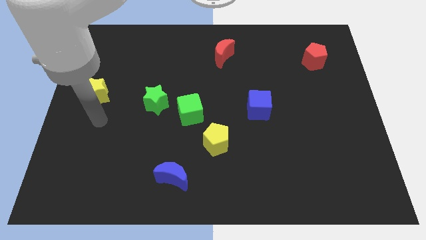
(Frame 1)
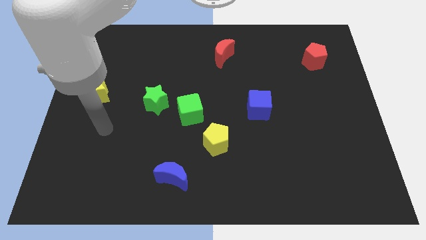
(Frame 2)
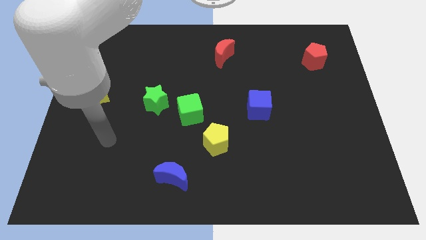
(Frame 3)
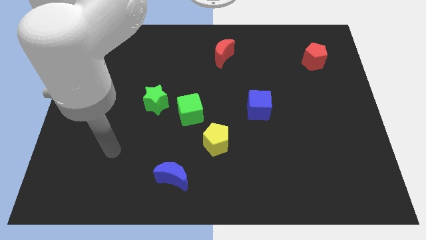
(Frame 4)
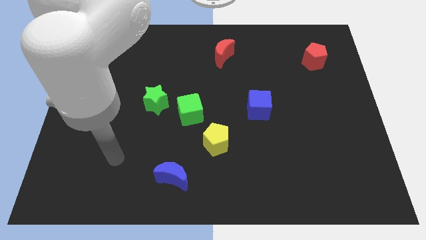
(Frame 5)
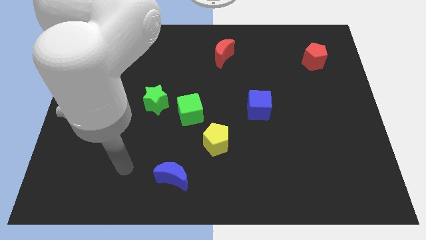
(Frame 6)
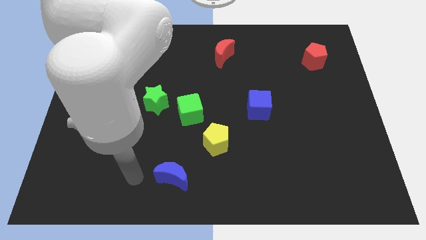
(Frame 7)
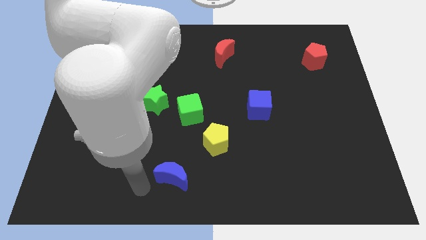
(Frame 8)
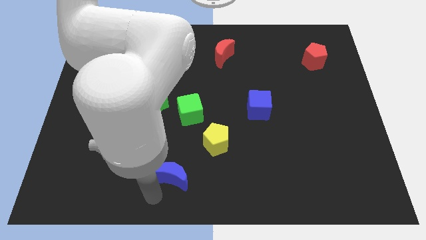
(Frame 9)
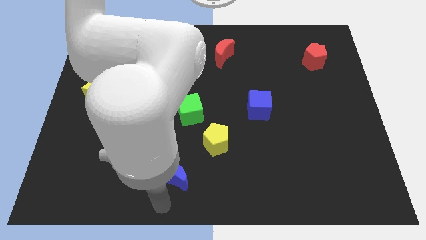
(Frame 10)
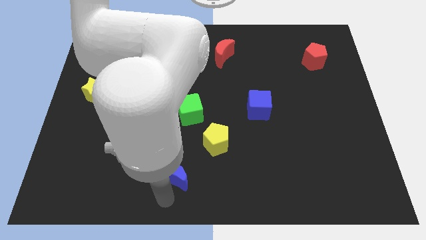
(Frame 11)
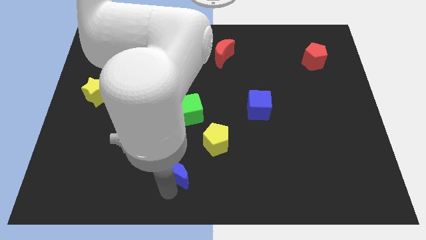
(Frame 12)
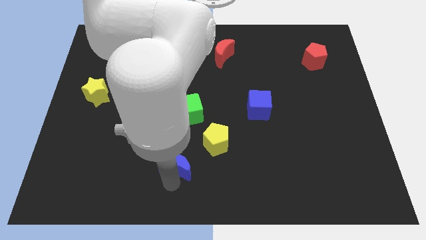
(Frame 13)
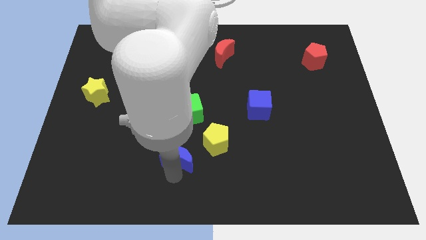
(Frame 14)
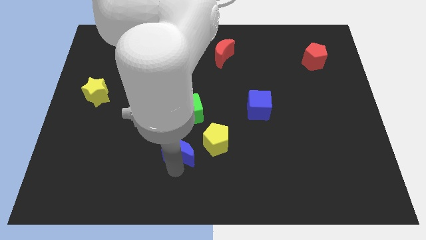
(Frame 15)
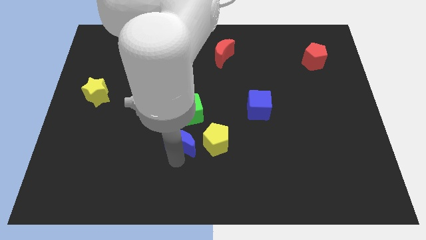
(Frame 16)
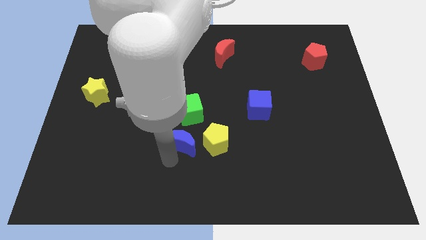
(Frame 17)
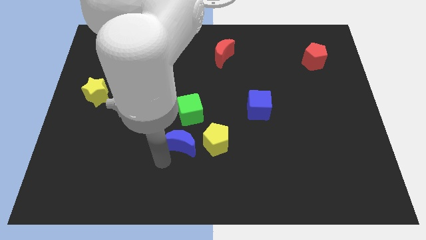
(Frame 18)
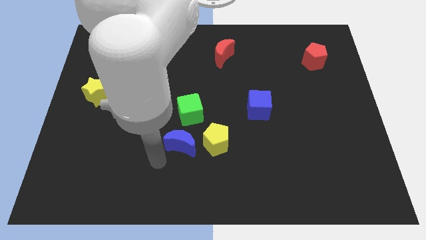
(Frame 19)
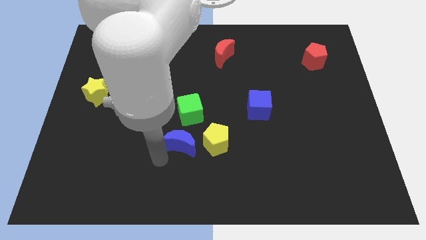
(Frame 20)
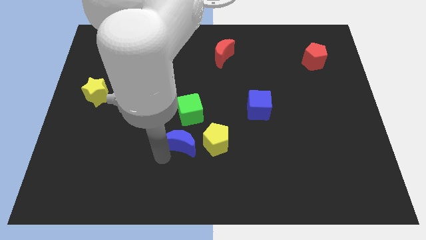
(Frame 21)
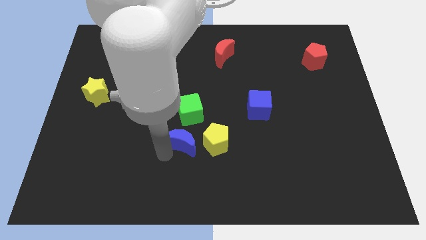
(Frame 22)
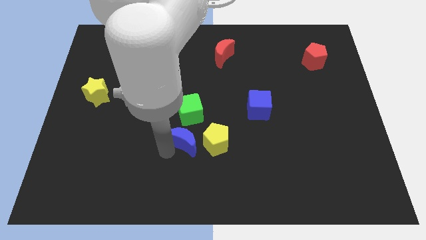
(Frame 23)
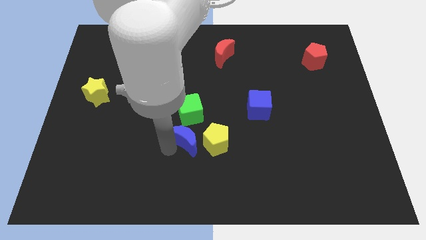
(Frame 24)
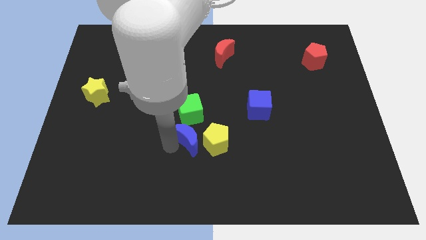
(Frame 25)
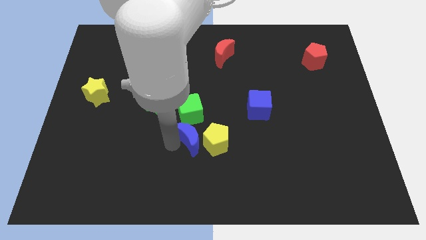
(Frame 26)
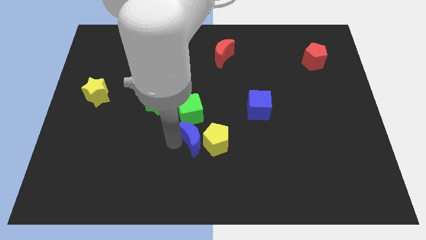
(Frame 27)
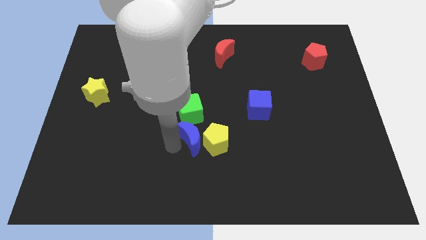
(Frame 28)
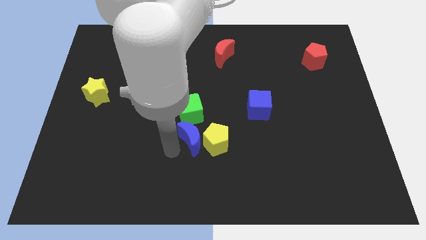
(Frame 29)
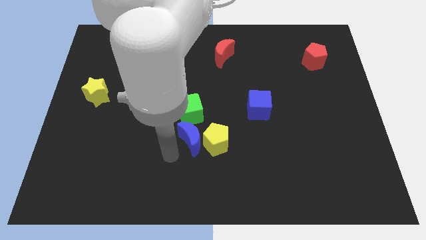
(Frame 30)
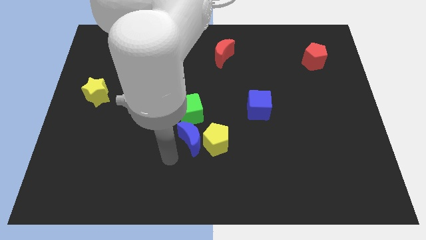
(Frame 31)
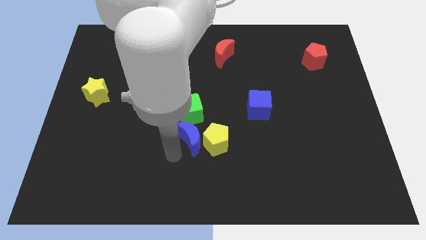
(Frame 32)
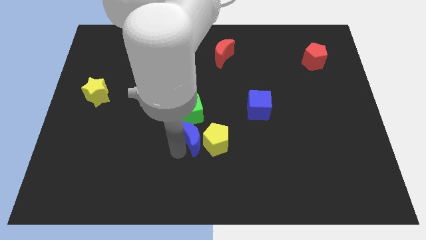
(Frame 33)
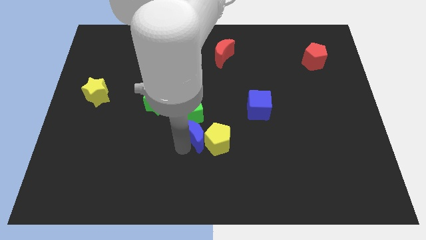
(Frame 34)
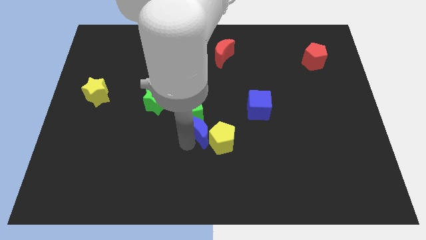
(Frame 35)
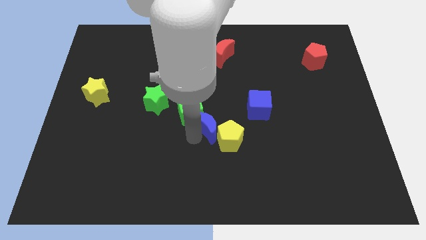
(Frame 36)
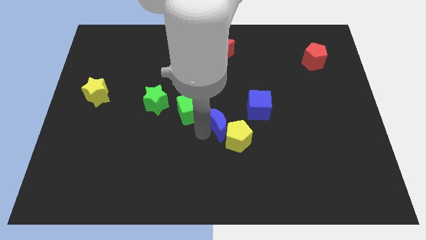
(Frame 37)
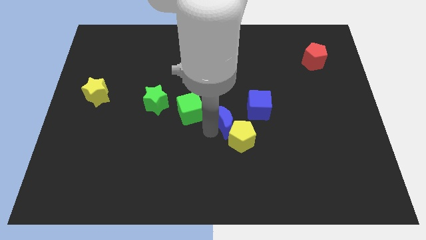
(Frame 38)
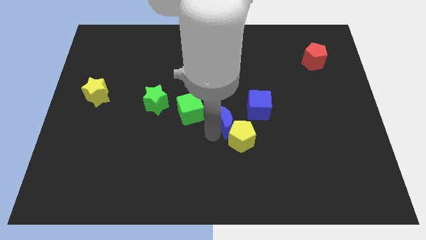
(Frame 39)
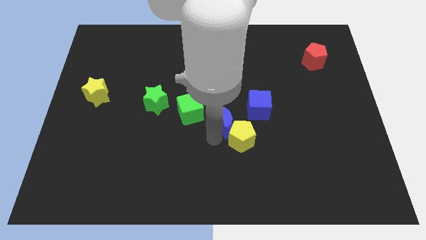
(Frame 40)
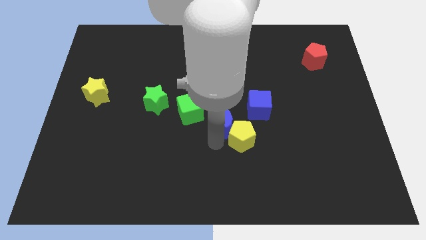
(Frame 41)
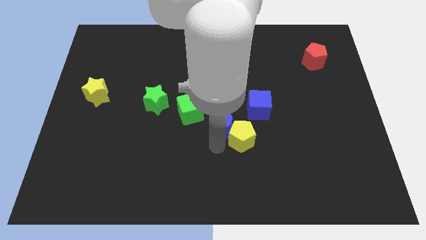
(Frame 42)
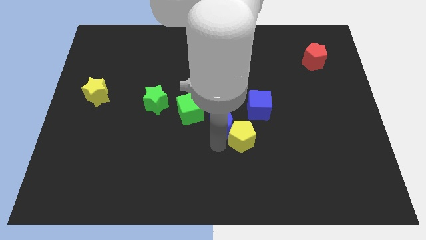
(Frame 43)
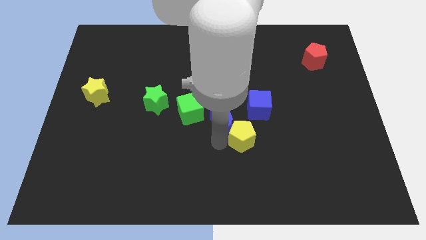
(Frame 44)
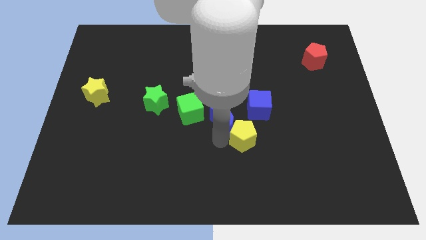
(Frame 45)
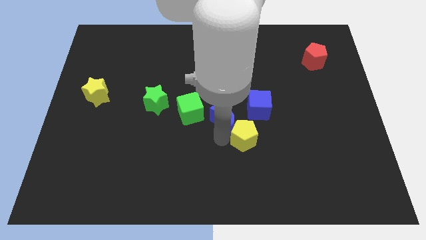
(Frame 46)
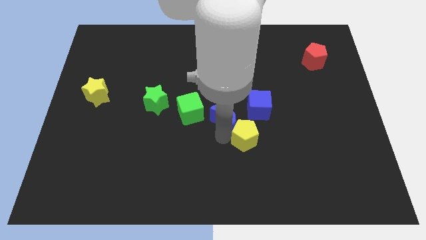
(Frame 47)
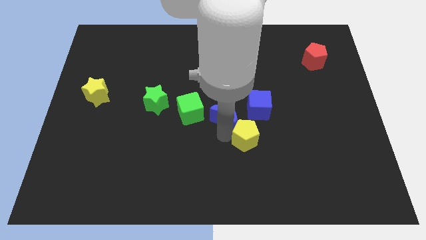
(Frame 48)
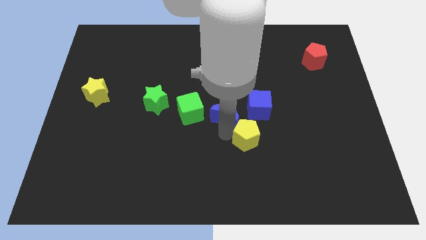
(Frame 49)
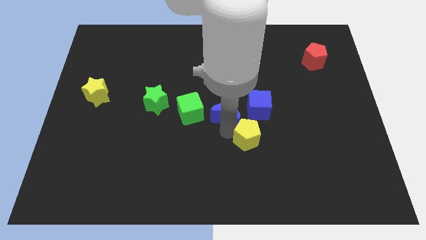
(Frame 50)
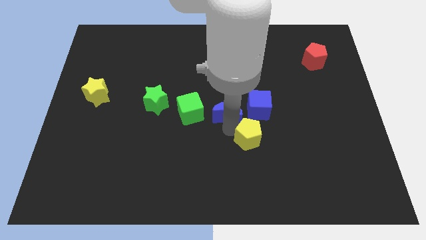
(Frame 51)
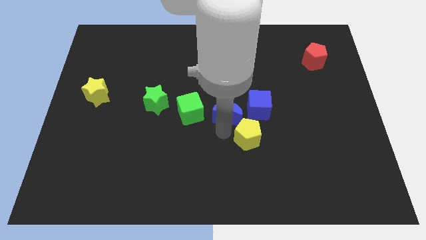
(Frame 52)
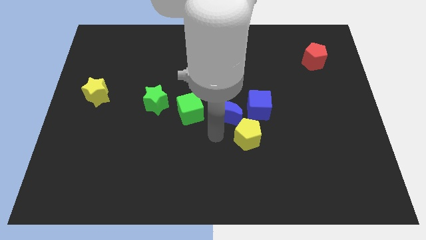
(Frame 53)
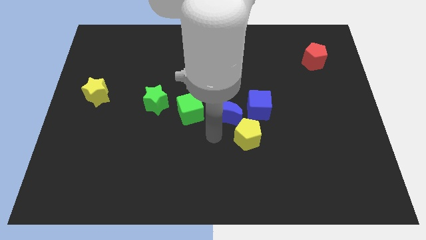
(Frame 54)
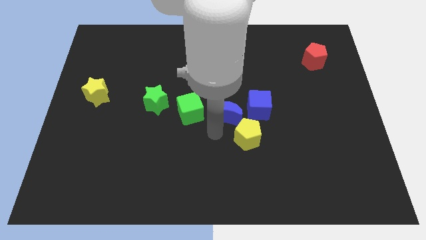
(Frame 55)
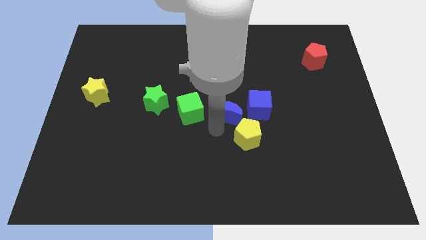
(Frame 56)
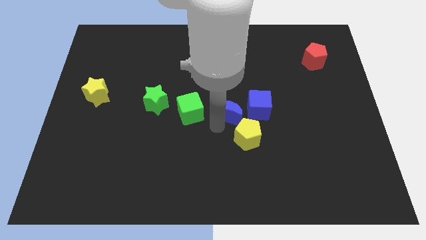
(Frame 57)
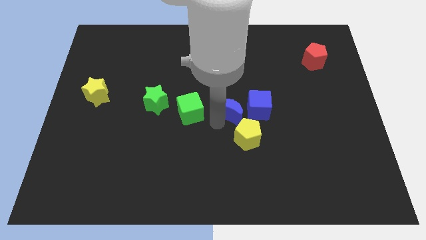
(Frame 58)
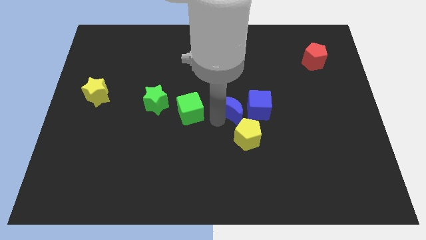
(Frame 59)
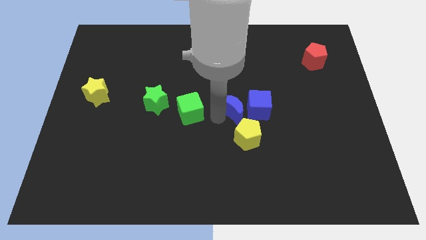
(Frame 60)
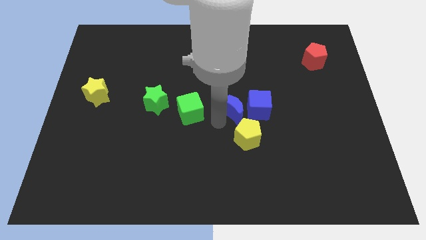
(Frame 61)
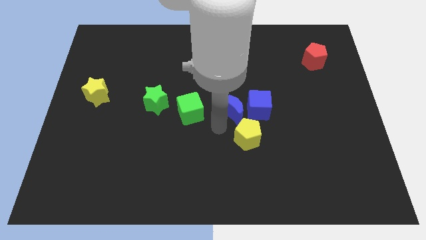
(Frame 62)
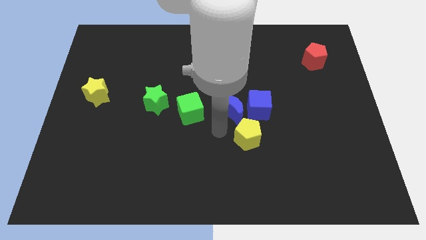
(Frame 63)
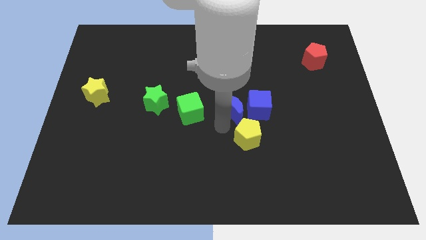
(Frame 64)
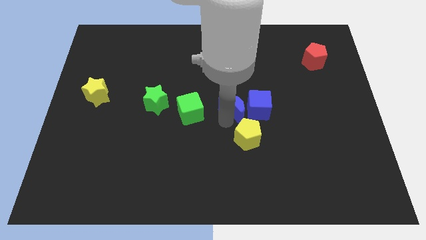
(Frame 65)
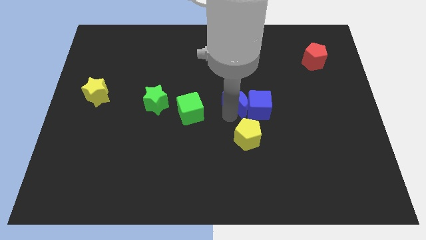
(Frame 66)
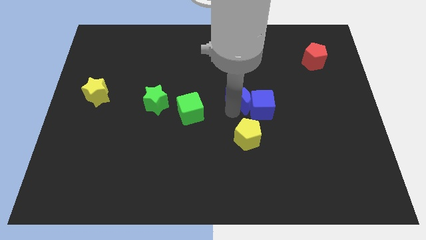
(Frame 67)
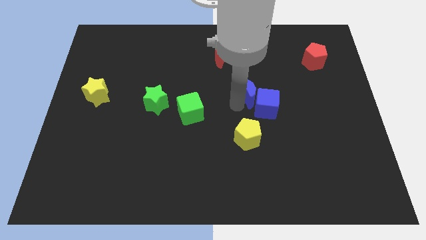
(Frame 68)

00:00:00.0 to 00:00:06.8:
push the blue moon to the top side of the blue cube

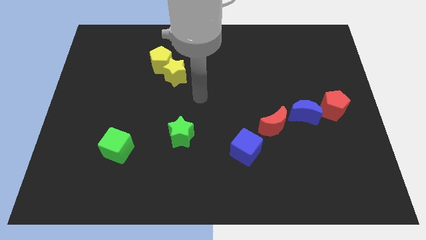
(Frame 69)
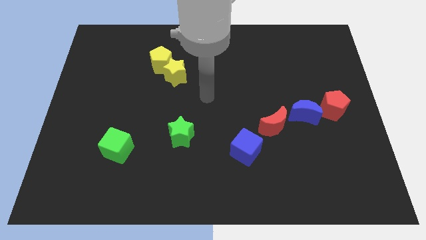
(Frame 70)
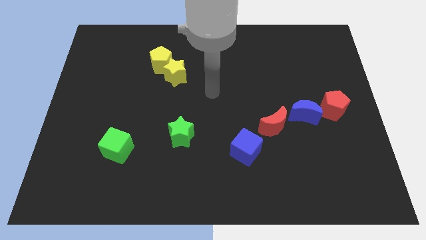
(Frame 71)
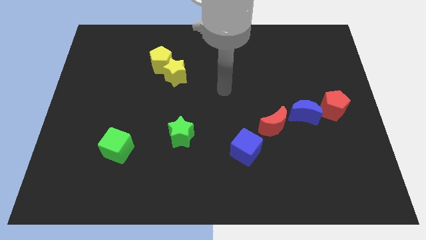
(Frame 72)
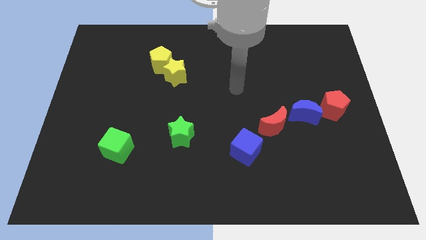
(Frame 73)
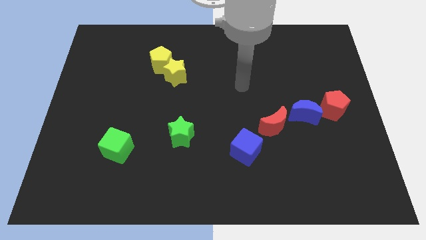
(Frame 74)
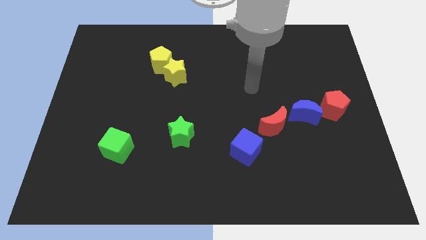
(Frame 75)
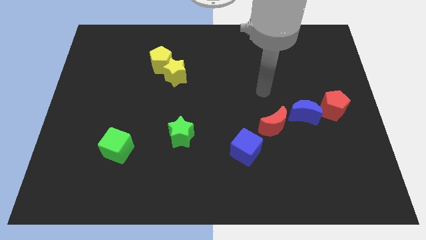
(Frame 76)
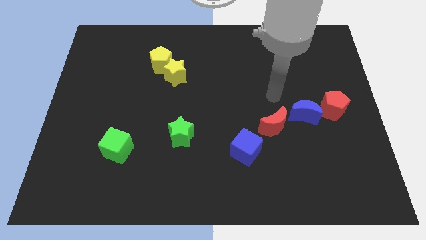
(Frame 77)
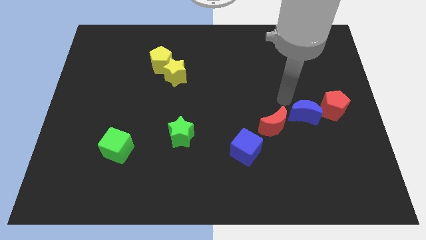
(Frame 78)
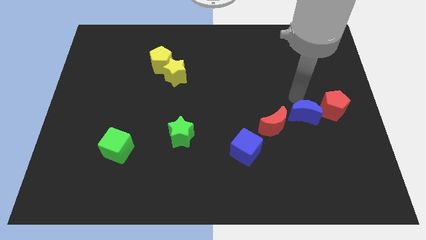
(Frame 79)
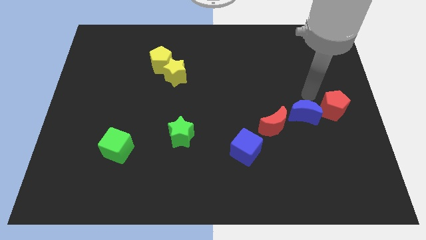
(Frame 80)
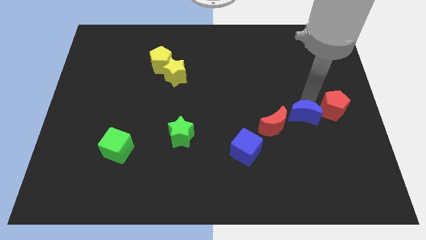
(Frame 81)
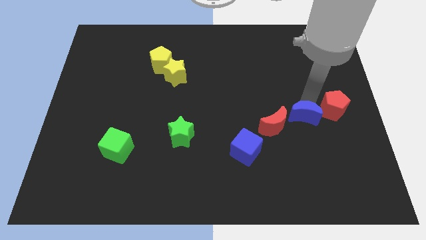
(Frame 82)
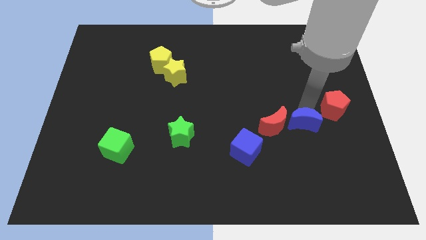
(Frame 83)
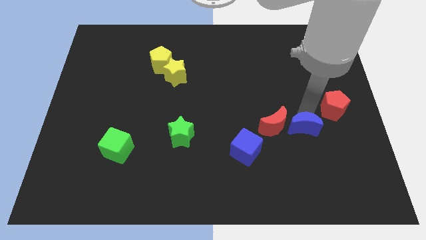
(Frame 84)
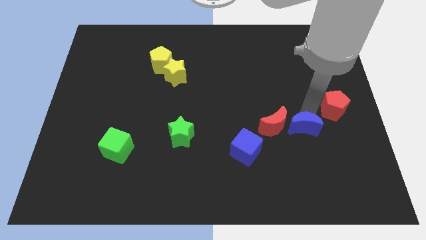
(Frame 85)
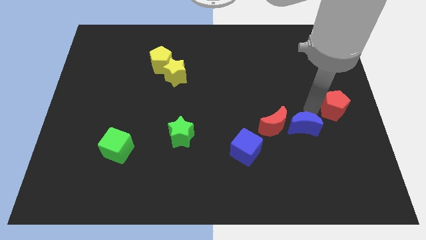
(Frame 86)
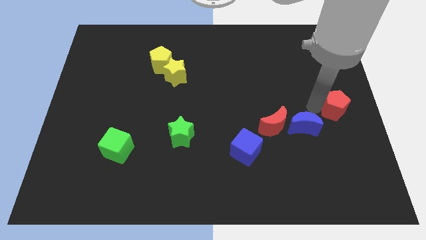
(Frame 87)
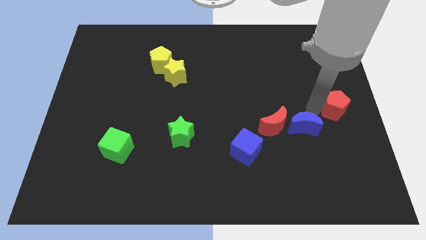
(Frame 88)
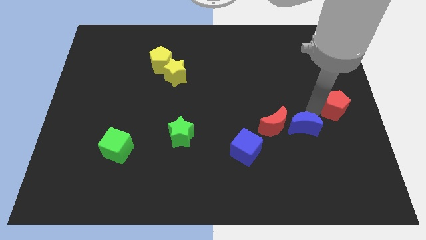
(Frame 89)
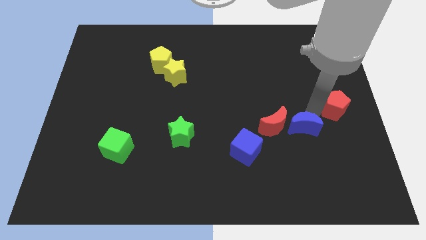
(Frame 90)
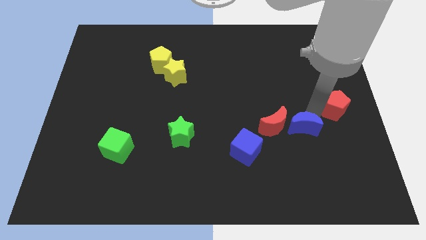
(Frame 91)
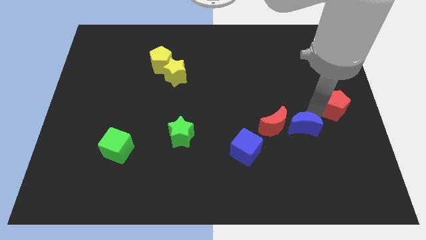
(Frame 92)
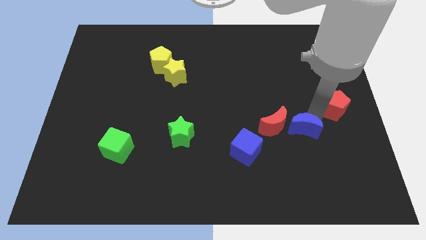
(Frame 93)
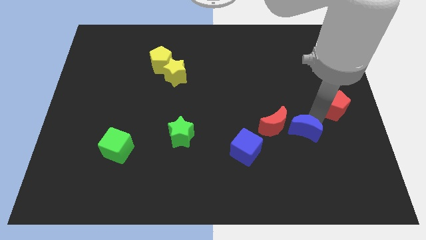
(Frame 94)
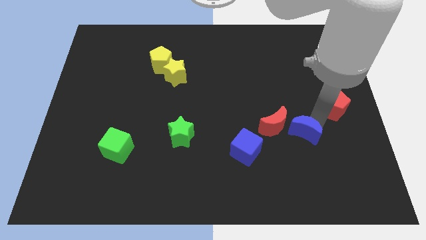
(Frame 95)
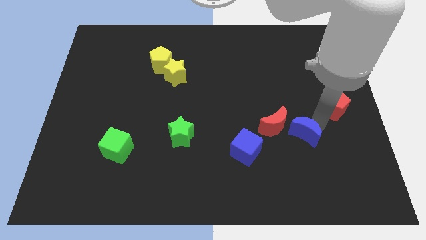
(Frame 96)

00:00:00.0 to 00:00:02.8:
move the blue moon to the right of the blue cube
